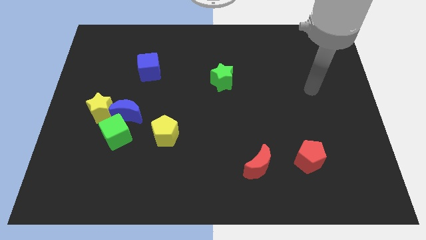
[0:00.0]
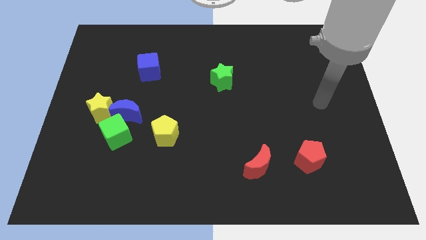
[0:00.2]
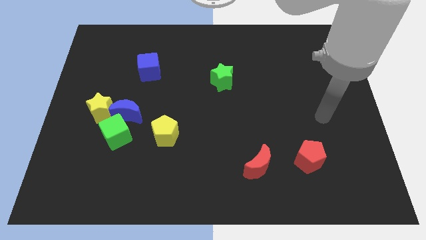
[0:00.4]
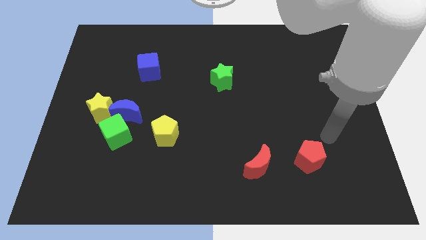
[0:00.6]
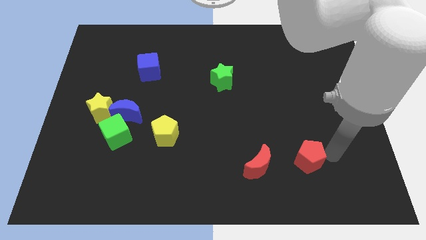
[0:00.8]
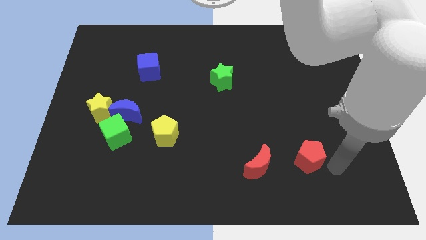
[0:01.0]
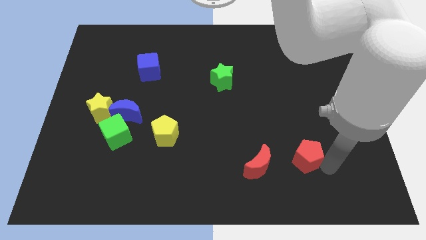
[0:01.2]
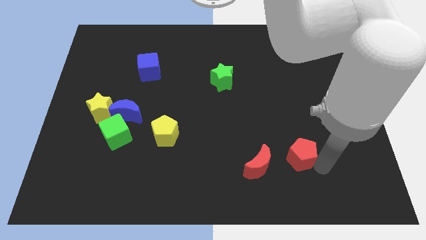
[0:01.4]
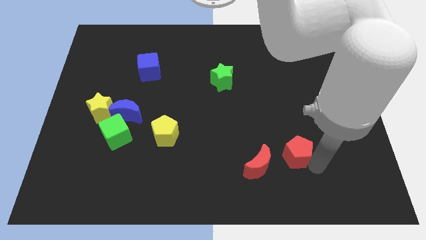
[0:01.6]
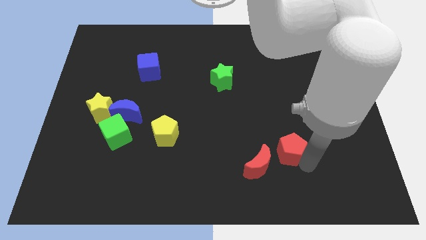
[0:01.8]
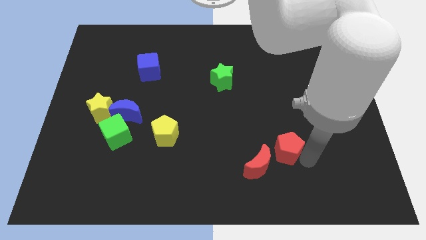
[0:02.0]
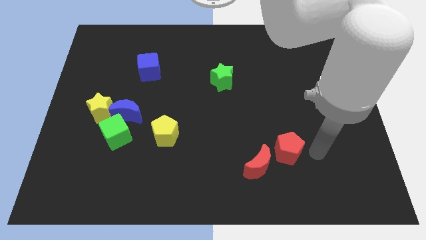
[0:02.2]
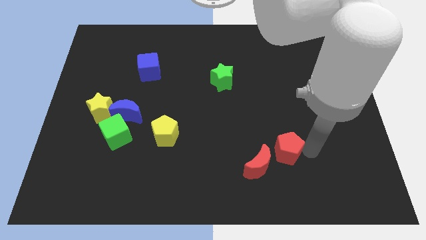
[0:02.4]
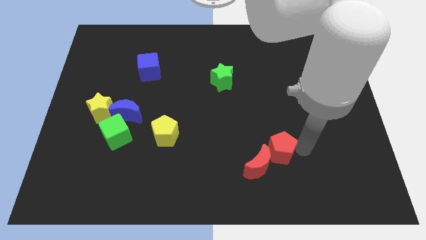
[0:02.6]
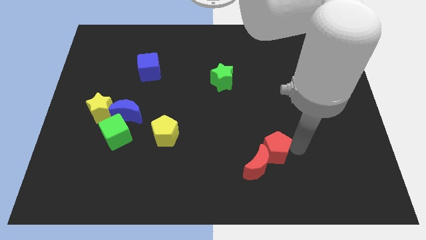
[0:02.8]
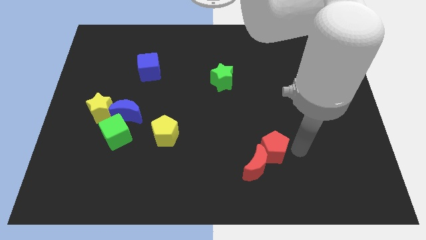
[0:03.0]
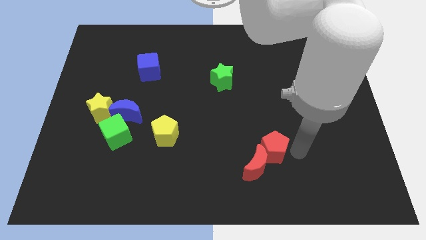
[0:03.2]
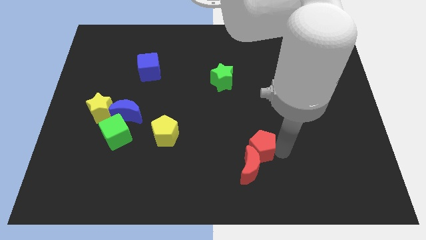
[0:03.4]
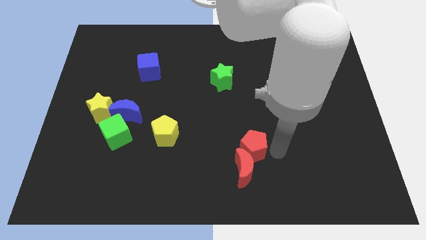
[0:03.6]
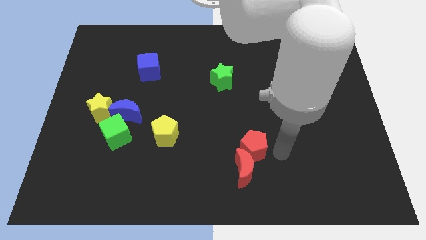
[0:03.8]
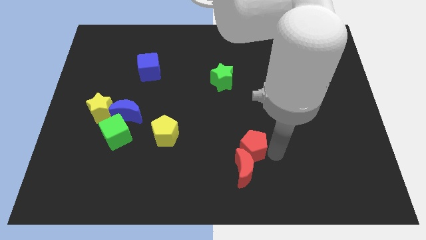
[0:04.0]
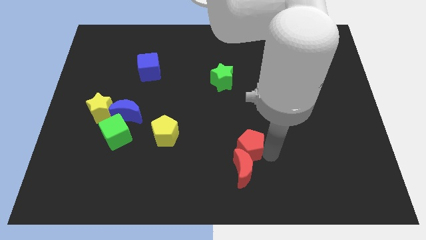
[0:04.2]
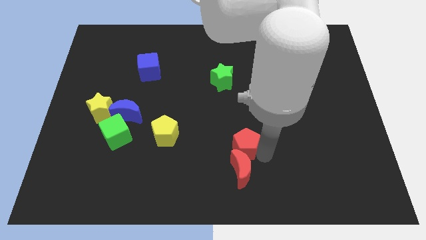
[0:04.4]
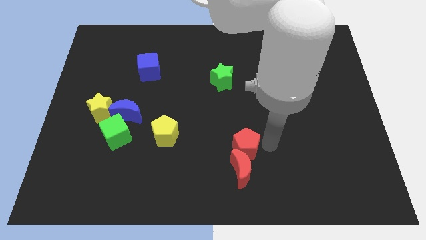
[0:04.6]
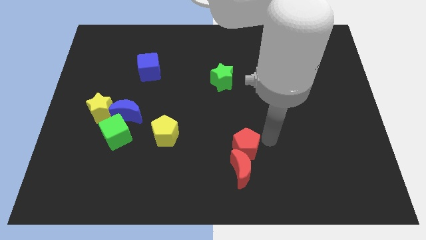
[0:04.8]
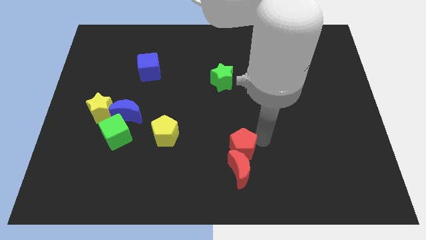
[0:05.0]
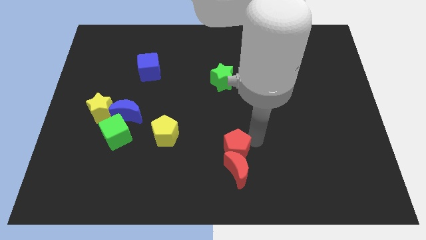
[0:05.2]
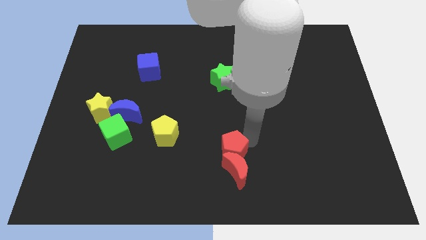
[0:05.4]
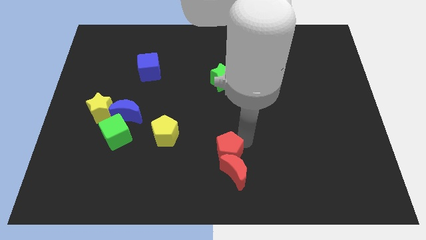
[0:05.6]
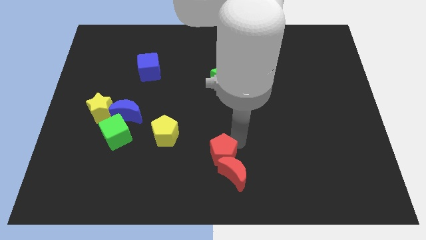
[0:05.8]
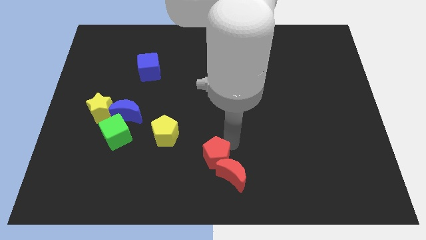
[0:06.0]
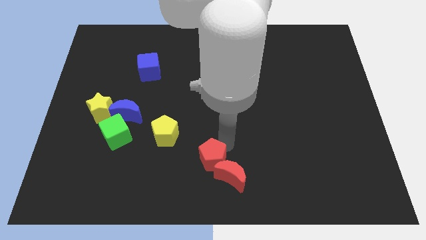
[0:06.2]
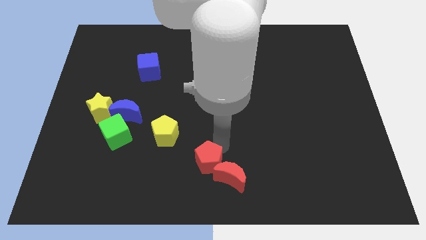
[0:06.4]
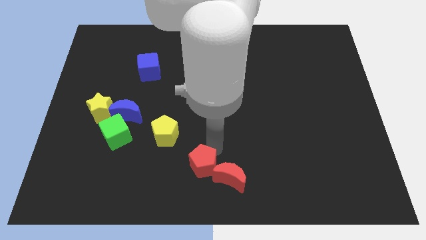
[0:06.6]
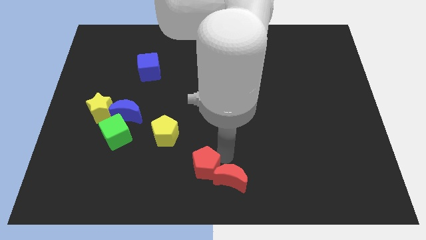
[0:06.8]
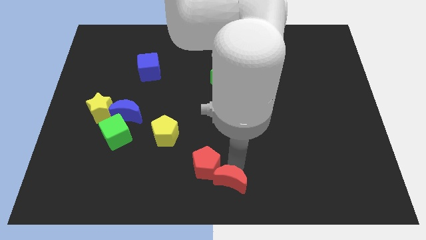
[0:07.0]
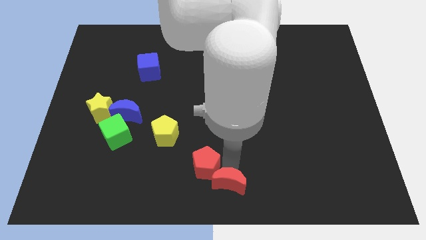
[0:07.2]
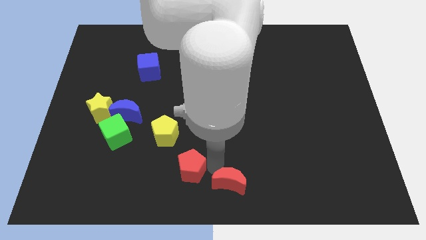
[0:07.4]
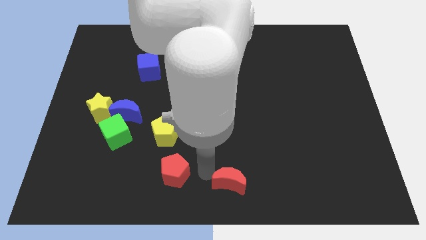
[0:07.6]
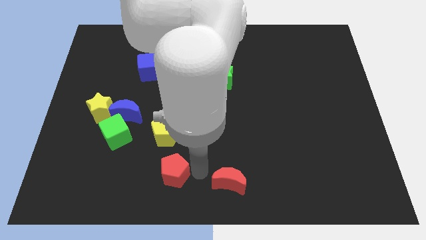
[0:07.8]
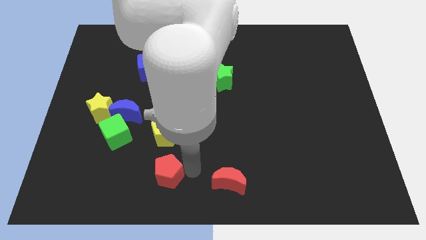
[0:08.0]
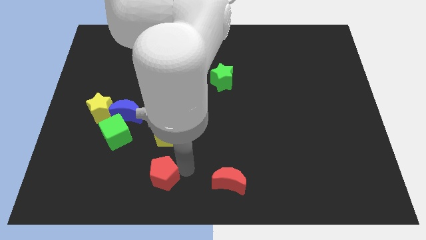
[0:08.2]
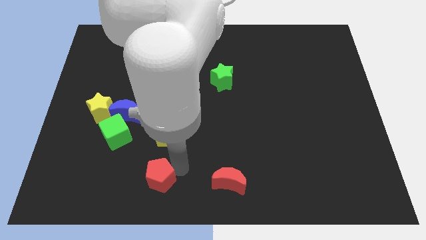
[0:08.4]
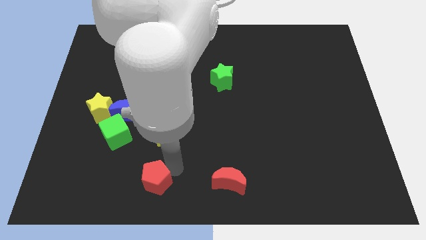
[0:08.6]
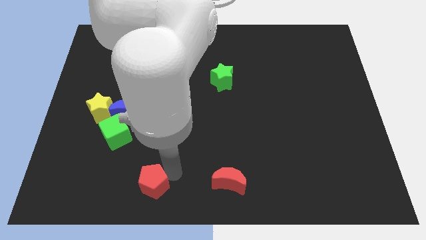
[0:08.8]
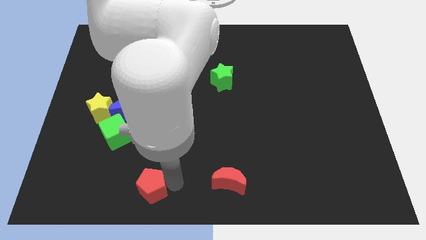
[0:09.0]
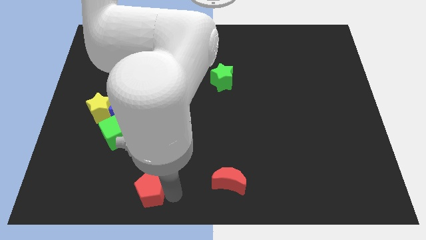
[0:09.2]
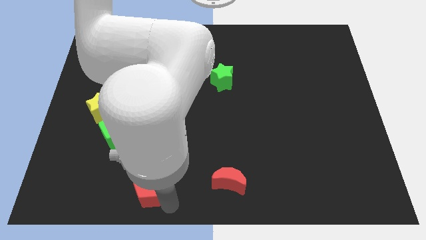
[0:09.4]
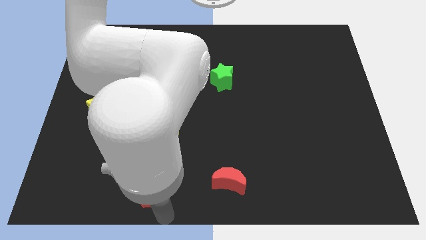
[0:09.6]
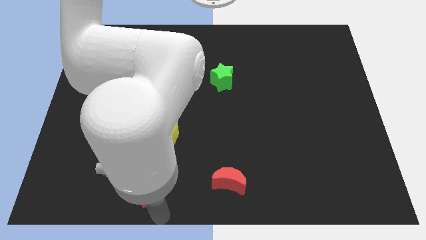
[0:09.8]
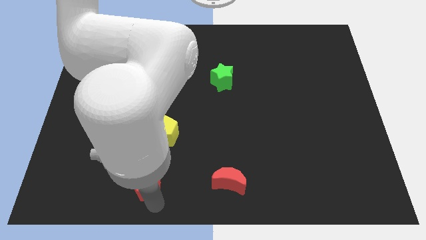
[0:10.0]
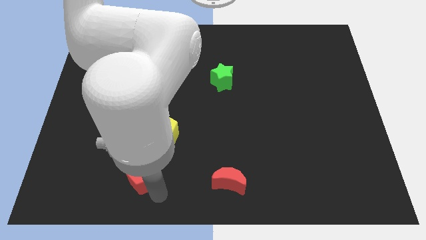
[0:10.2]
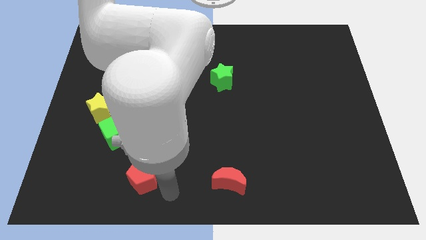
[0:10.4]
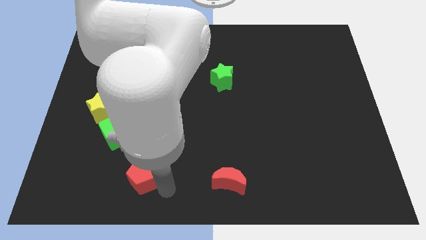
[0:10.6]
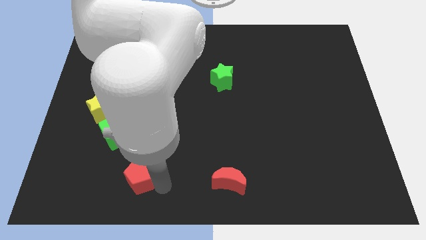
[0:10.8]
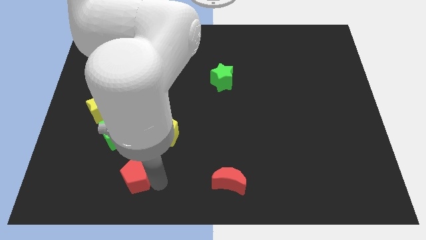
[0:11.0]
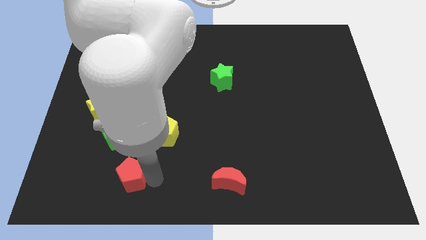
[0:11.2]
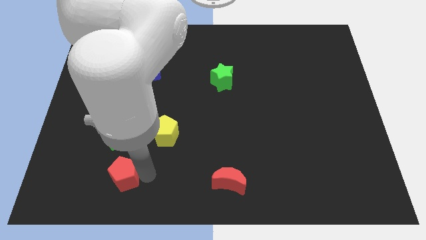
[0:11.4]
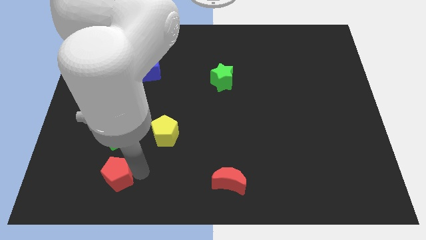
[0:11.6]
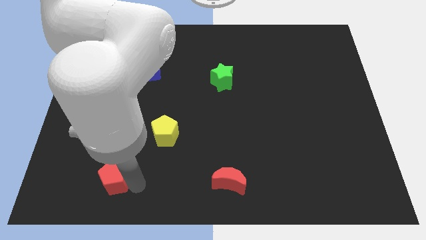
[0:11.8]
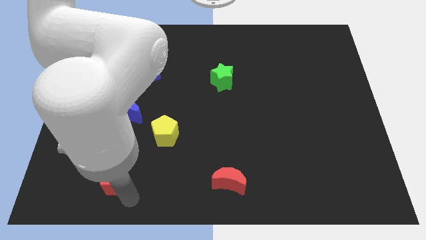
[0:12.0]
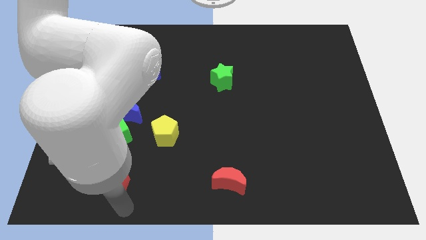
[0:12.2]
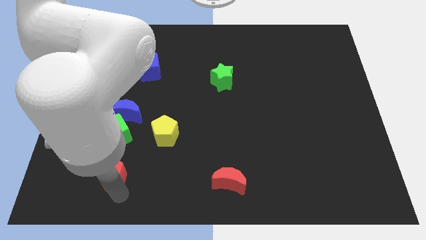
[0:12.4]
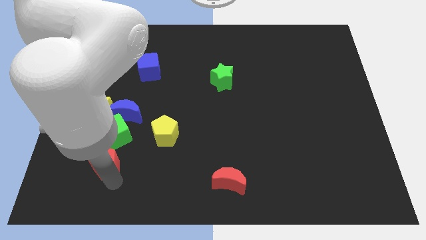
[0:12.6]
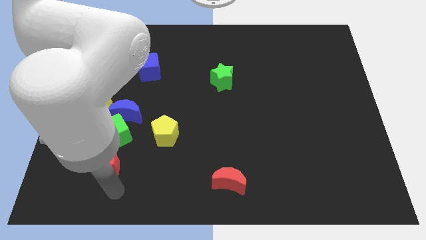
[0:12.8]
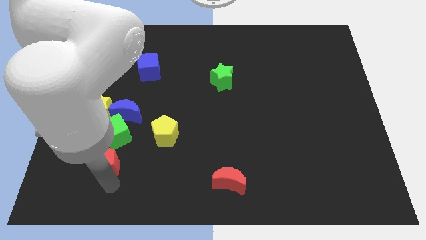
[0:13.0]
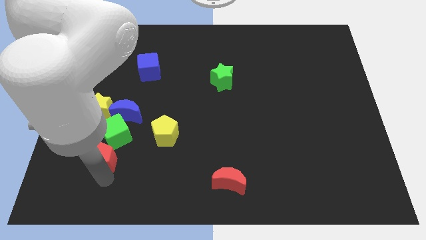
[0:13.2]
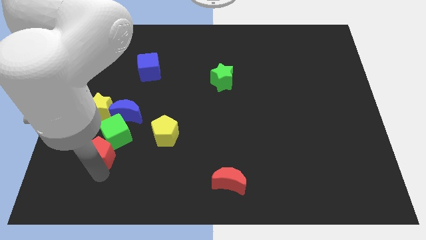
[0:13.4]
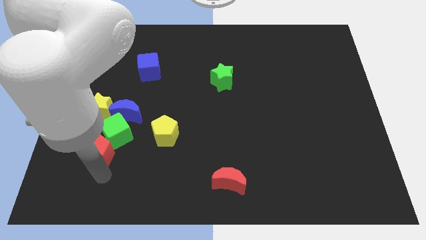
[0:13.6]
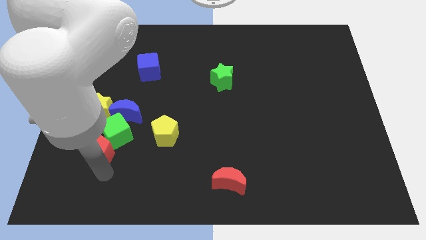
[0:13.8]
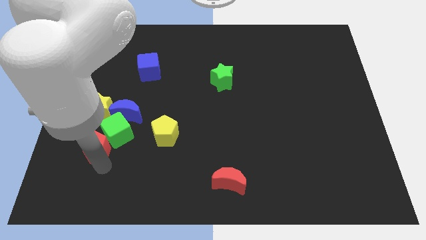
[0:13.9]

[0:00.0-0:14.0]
slide the red pentagon to the left of the yellow pentagon
